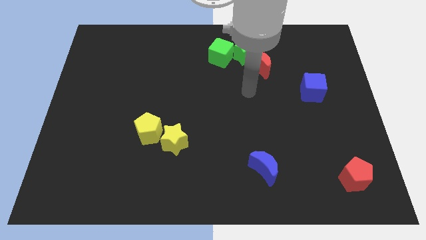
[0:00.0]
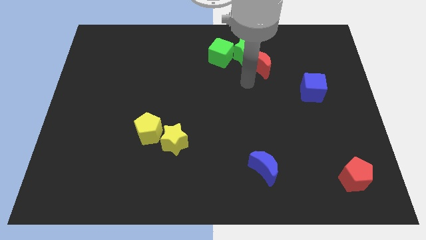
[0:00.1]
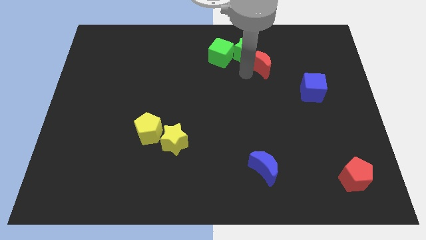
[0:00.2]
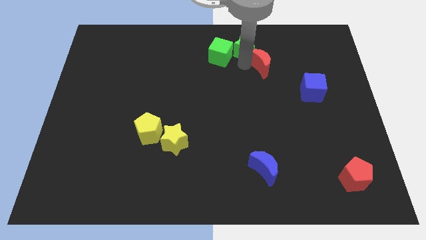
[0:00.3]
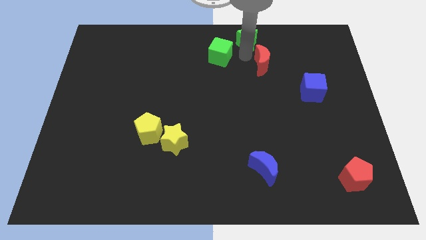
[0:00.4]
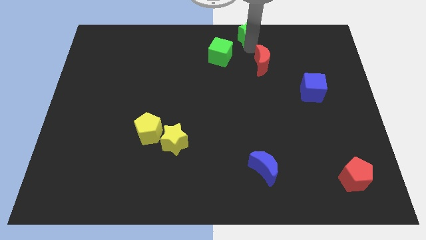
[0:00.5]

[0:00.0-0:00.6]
separate the red moon from the green star

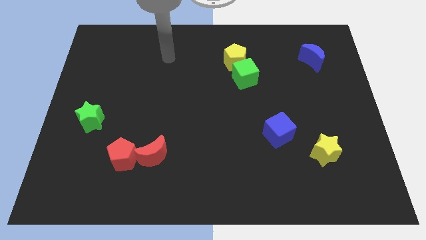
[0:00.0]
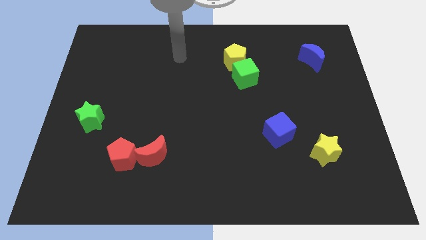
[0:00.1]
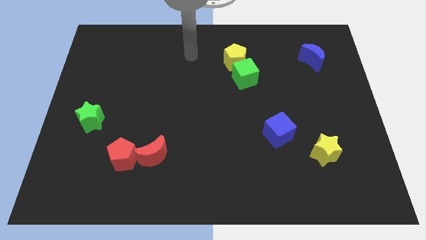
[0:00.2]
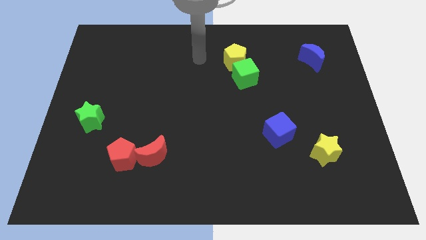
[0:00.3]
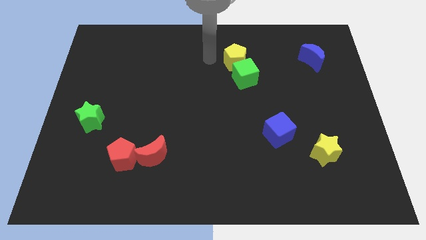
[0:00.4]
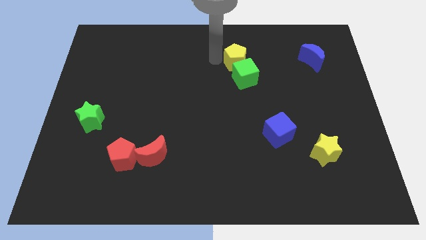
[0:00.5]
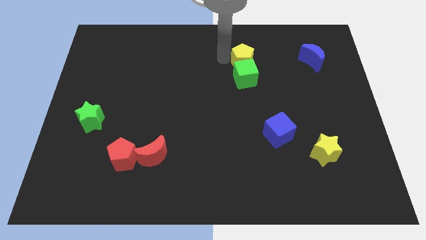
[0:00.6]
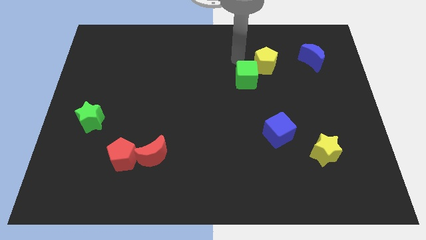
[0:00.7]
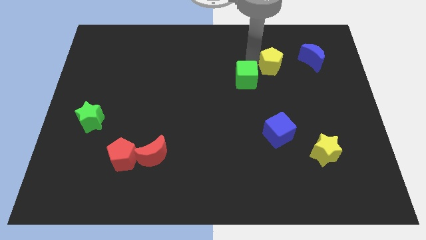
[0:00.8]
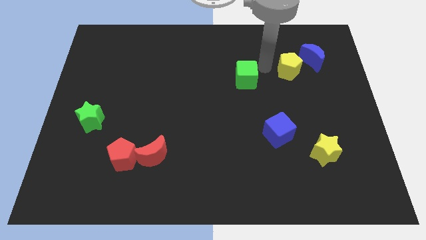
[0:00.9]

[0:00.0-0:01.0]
move the green cube away from the yellow pentagon

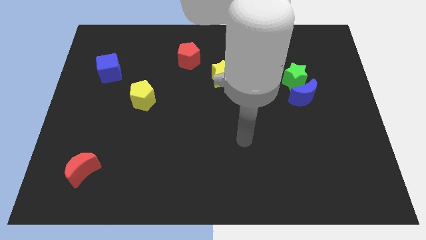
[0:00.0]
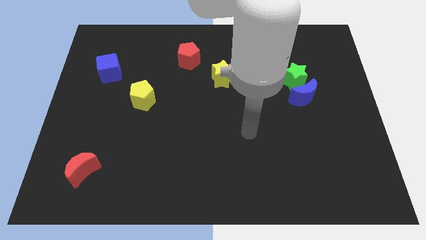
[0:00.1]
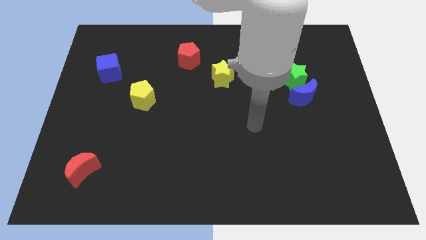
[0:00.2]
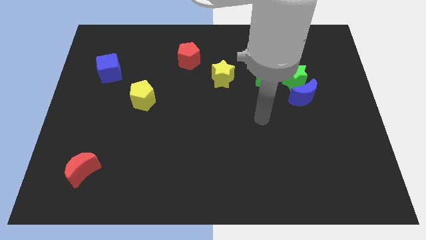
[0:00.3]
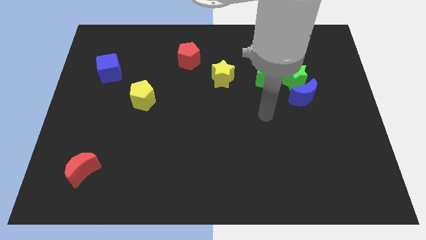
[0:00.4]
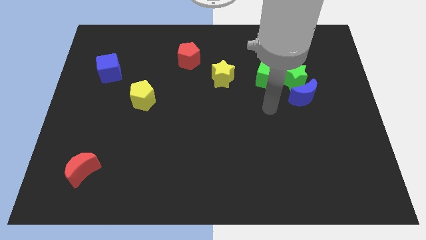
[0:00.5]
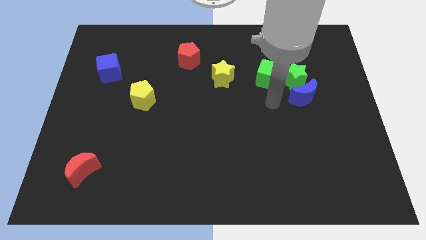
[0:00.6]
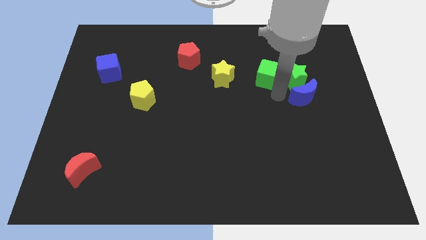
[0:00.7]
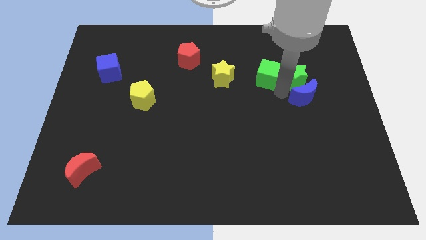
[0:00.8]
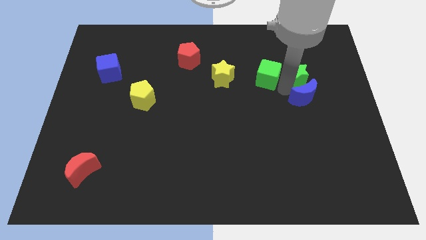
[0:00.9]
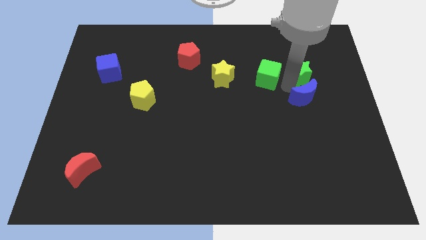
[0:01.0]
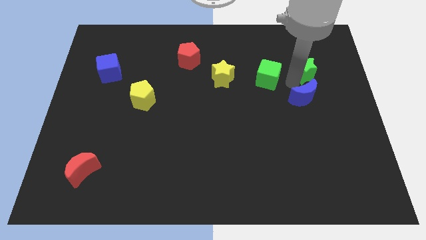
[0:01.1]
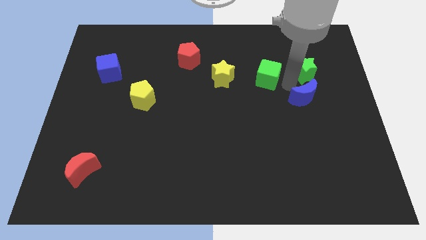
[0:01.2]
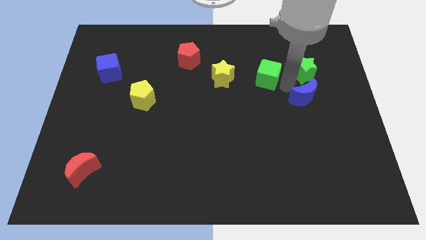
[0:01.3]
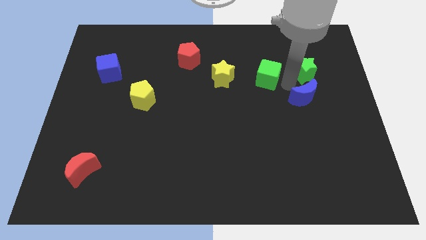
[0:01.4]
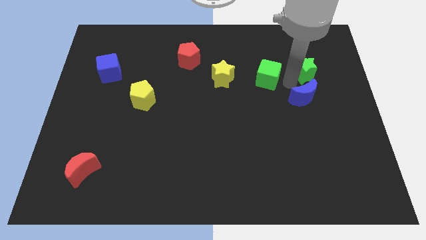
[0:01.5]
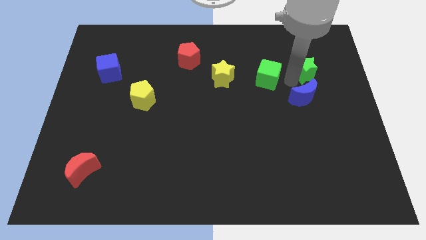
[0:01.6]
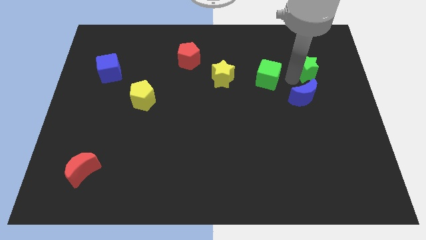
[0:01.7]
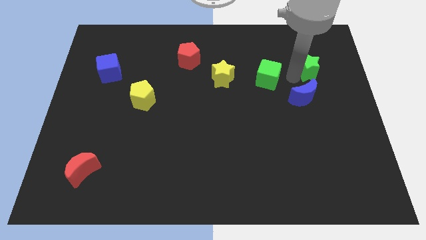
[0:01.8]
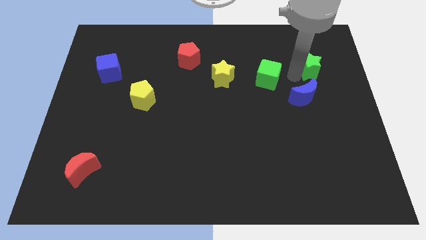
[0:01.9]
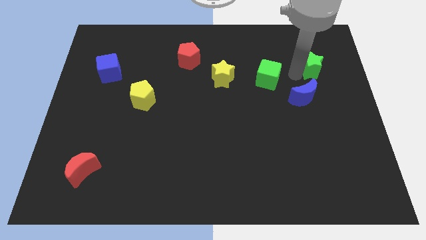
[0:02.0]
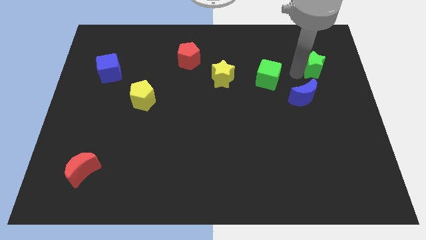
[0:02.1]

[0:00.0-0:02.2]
move the green star away from the blue moon and green cube

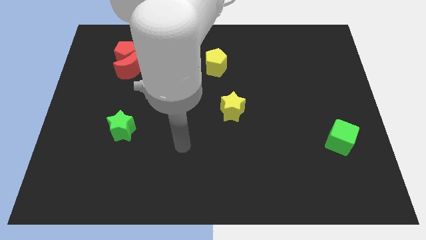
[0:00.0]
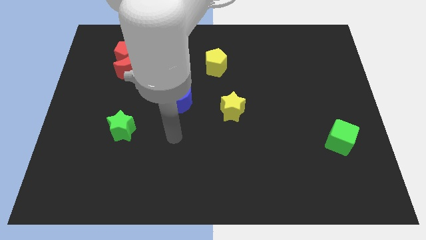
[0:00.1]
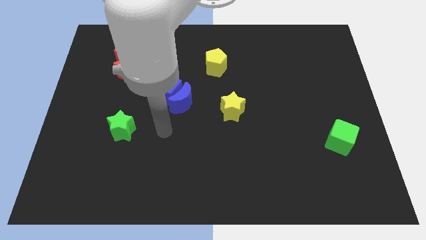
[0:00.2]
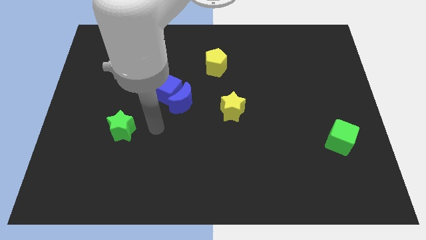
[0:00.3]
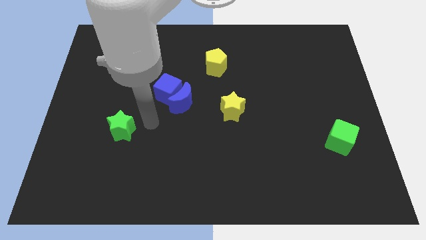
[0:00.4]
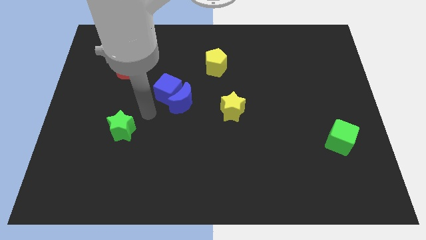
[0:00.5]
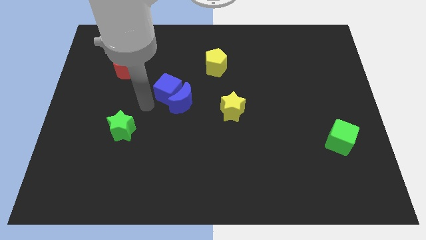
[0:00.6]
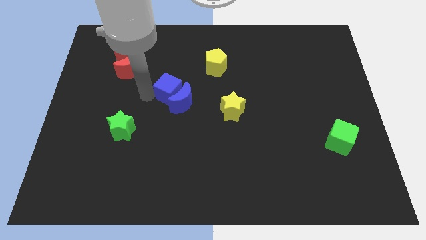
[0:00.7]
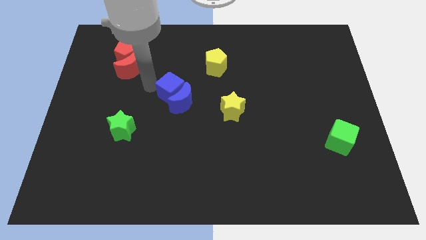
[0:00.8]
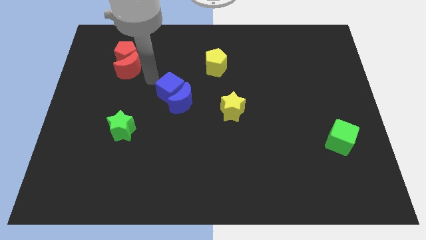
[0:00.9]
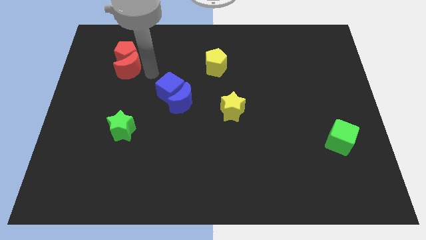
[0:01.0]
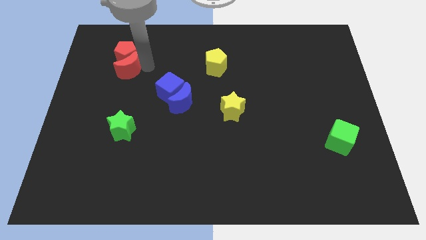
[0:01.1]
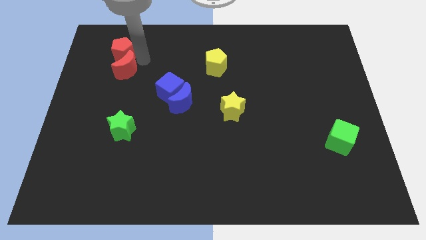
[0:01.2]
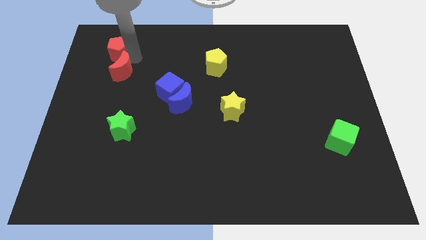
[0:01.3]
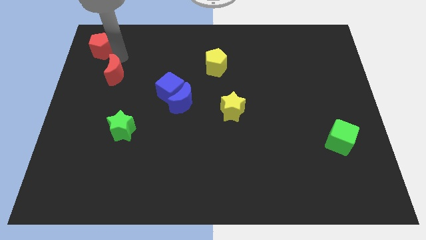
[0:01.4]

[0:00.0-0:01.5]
pull the red moon apart from the red pentagon

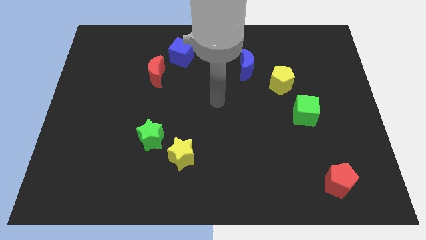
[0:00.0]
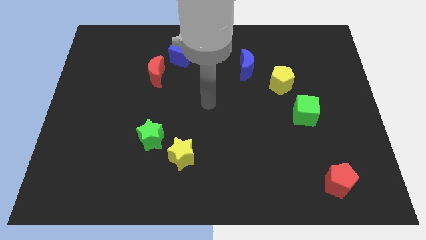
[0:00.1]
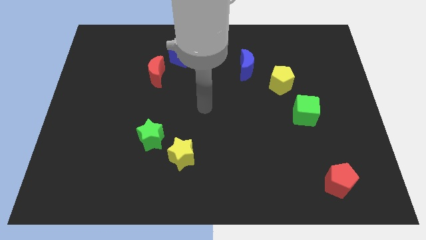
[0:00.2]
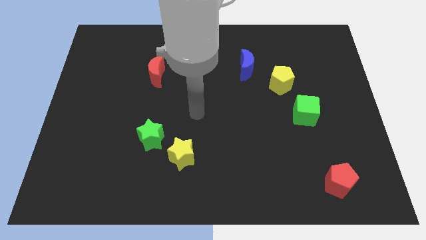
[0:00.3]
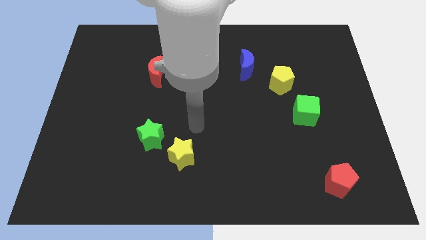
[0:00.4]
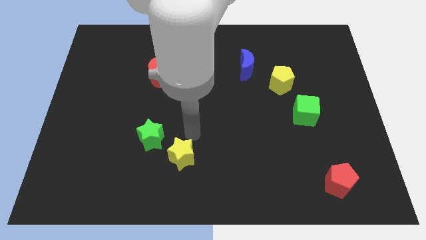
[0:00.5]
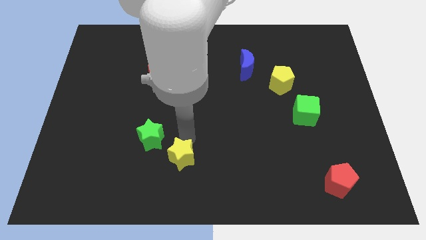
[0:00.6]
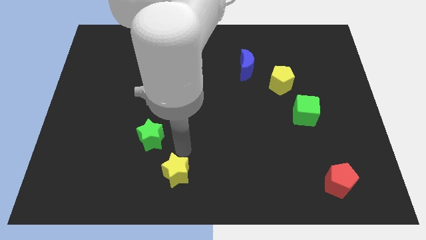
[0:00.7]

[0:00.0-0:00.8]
move the green star away from the yellow star

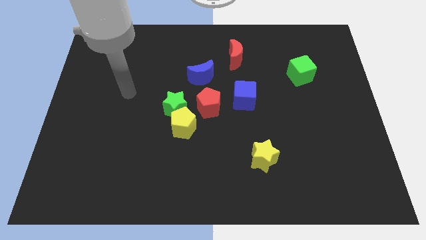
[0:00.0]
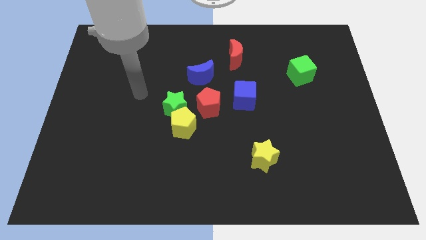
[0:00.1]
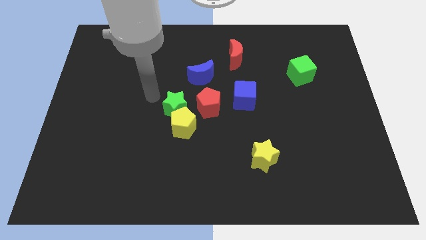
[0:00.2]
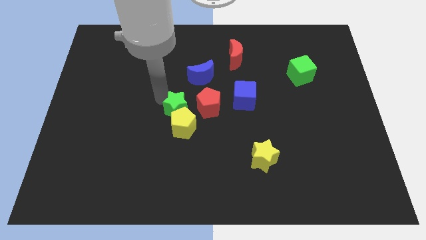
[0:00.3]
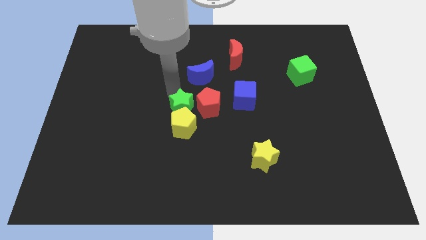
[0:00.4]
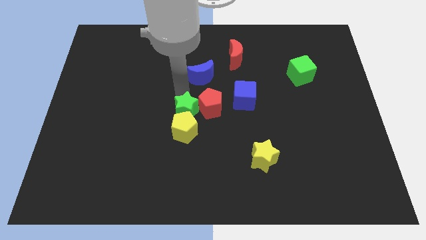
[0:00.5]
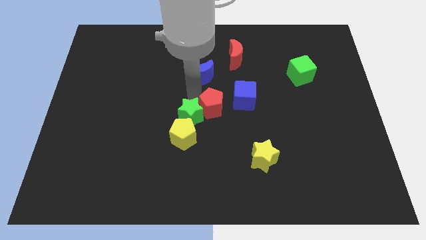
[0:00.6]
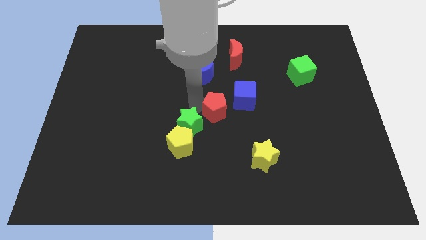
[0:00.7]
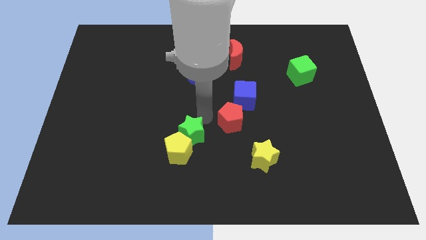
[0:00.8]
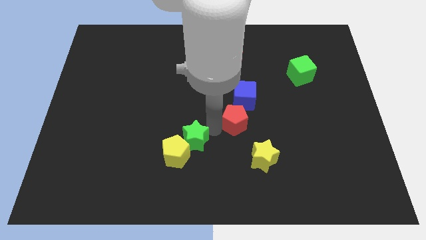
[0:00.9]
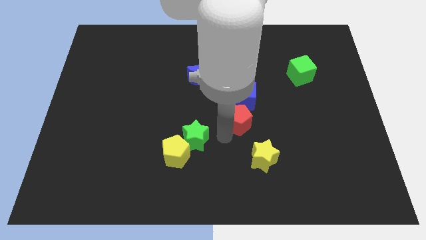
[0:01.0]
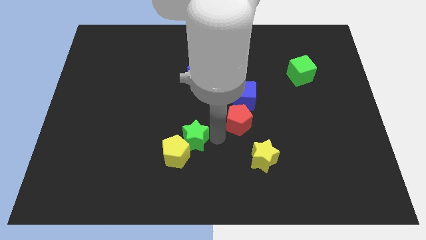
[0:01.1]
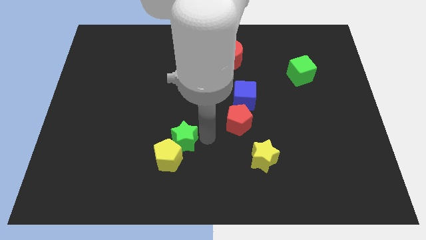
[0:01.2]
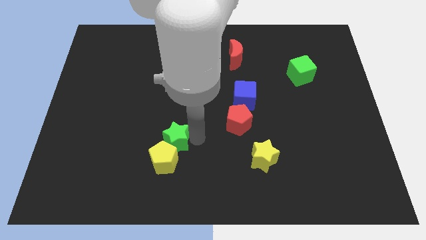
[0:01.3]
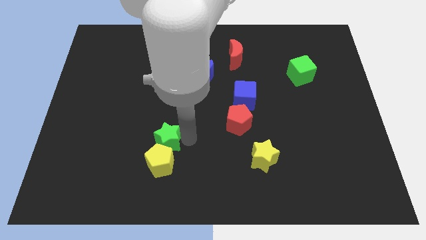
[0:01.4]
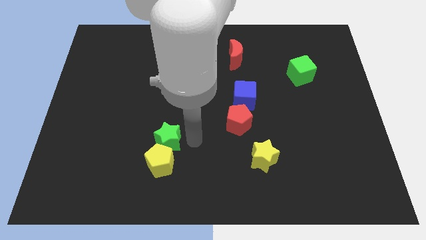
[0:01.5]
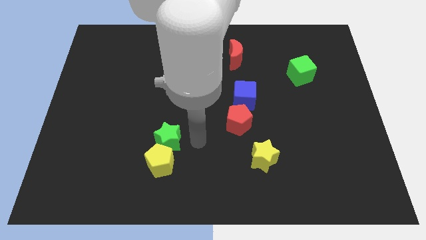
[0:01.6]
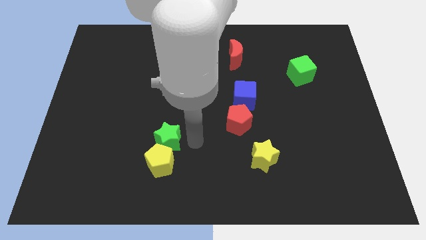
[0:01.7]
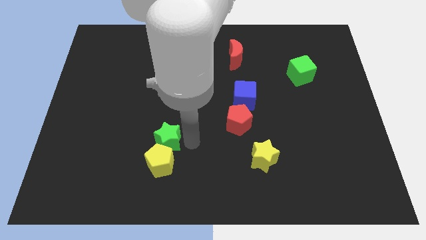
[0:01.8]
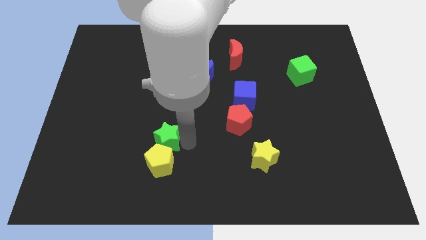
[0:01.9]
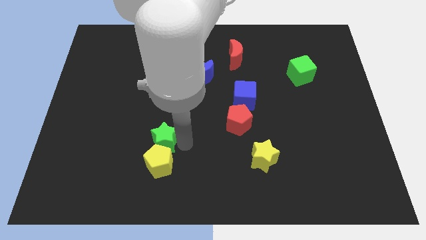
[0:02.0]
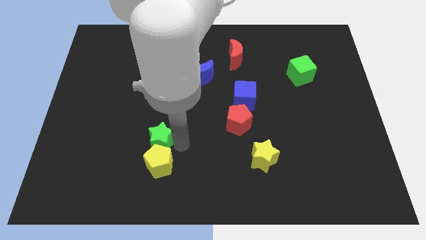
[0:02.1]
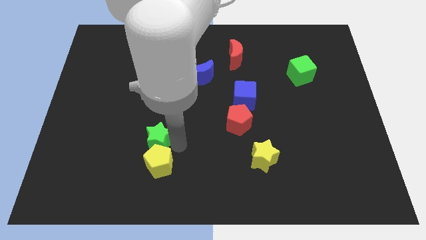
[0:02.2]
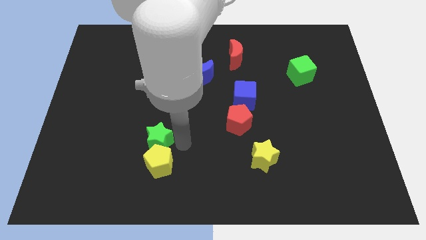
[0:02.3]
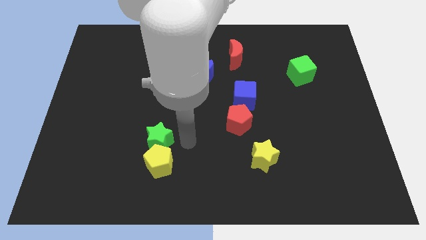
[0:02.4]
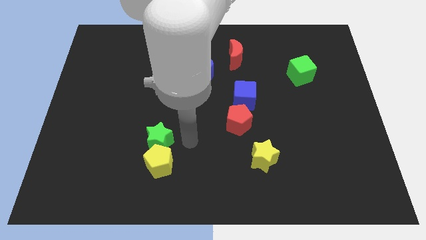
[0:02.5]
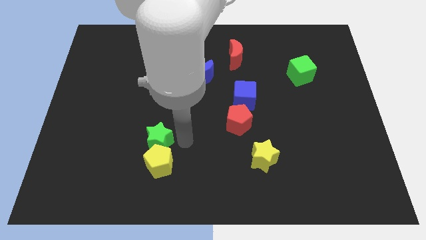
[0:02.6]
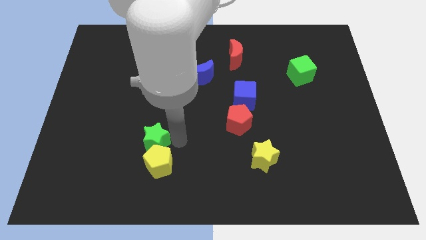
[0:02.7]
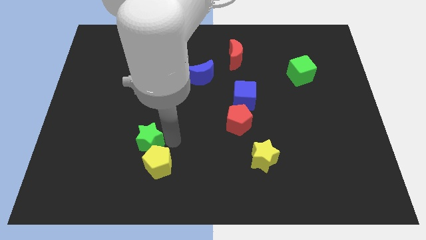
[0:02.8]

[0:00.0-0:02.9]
move the green star away from the yellow pentagon and red pentagon

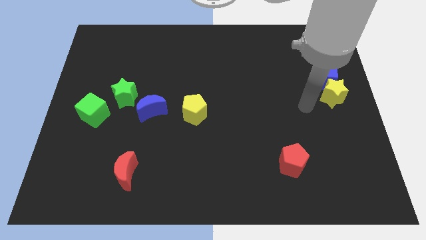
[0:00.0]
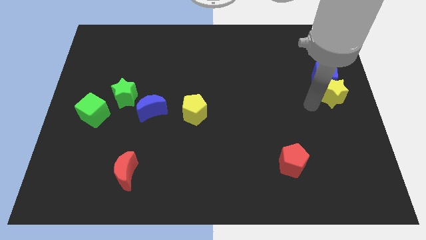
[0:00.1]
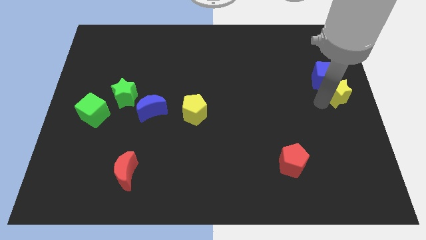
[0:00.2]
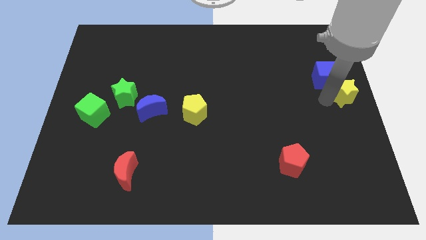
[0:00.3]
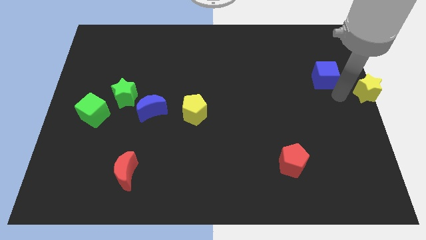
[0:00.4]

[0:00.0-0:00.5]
move the blue cube away from the yellow star
